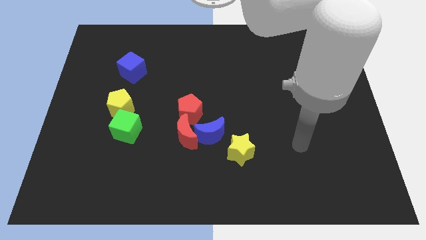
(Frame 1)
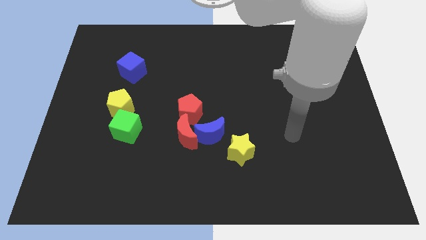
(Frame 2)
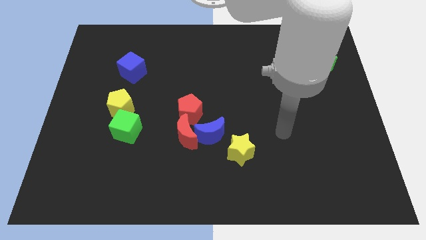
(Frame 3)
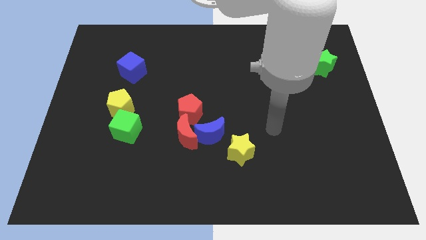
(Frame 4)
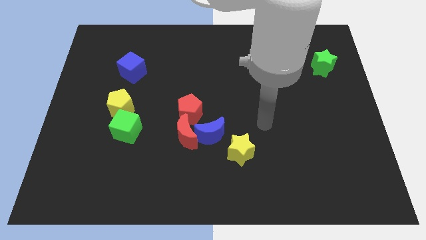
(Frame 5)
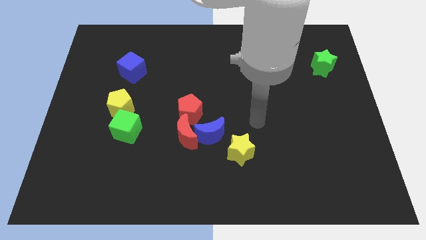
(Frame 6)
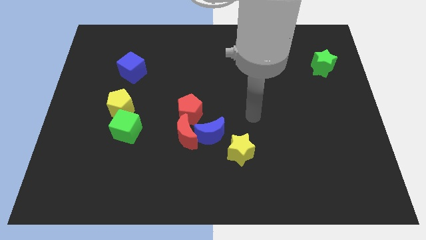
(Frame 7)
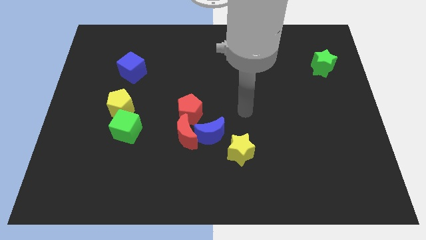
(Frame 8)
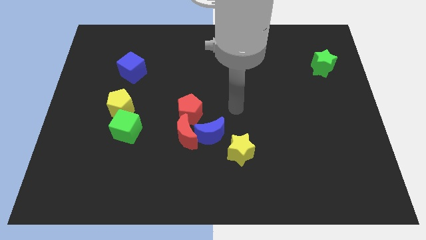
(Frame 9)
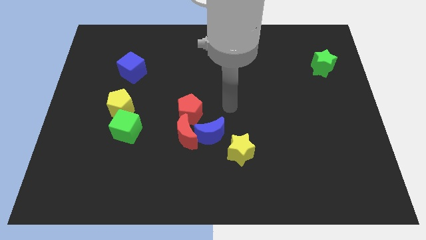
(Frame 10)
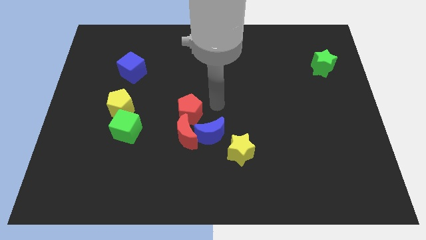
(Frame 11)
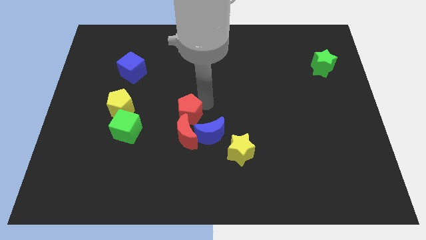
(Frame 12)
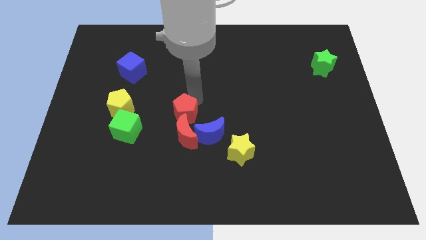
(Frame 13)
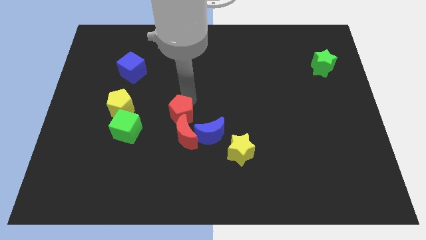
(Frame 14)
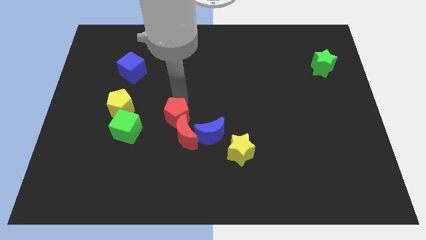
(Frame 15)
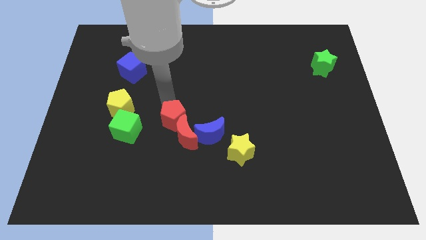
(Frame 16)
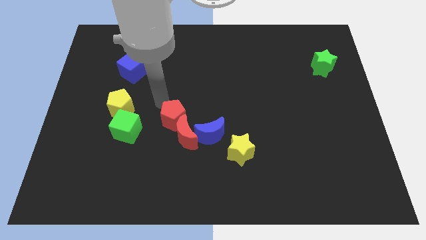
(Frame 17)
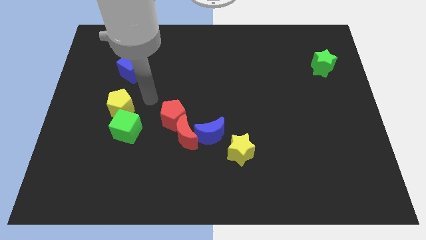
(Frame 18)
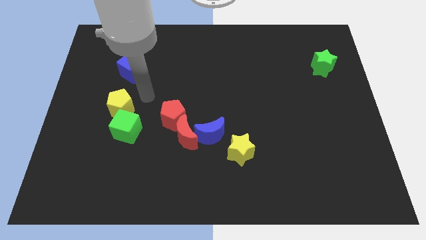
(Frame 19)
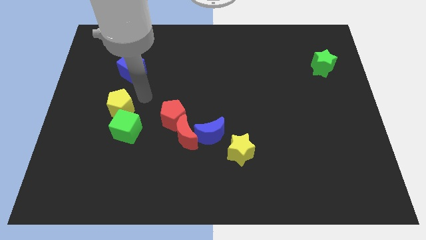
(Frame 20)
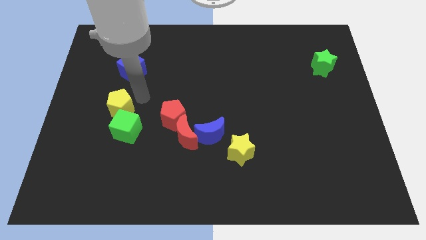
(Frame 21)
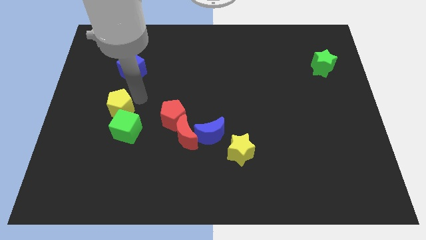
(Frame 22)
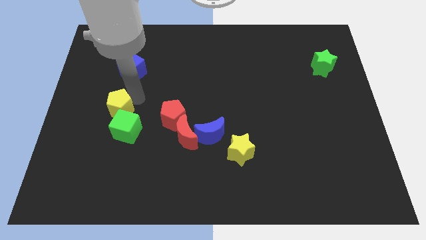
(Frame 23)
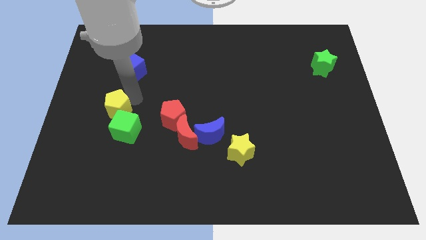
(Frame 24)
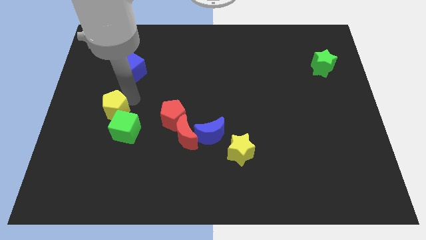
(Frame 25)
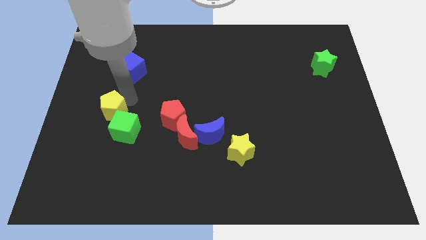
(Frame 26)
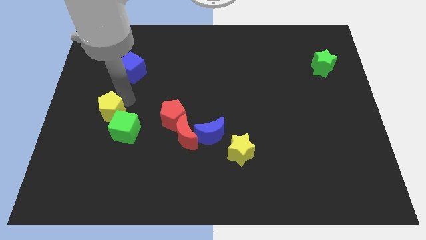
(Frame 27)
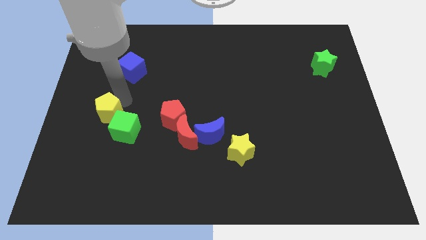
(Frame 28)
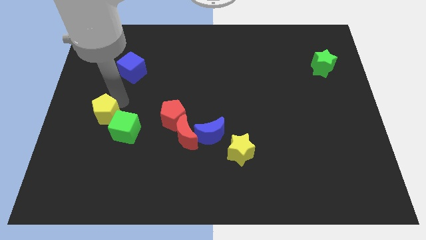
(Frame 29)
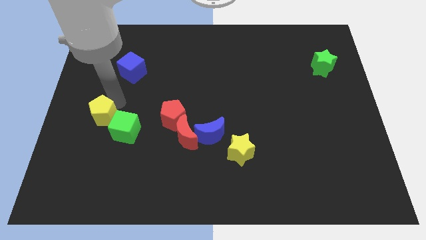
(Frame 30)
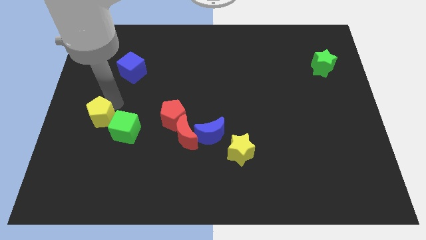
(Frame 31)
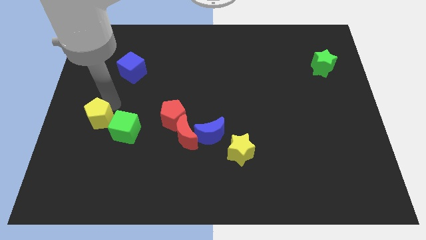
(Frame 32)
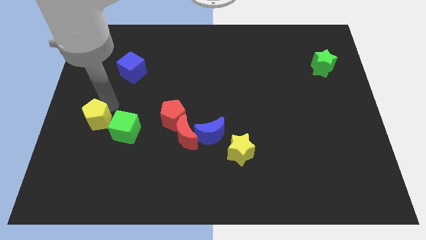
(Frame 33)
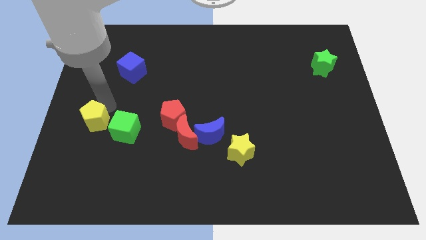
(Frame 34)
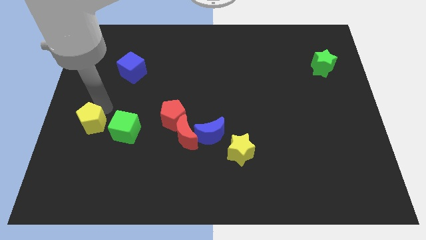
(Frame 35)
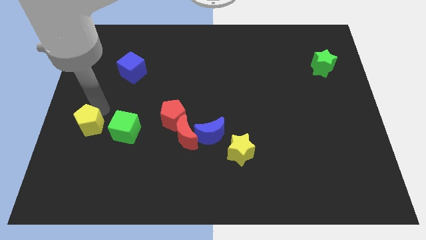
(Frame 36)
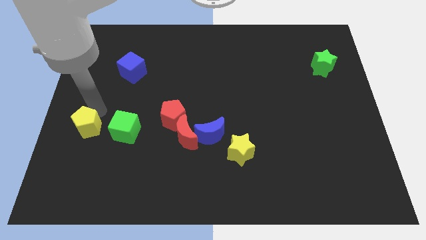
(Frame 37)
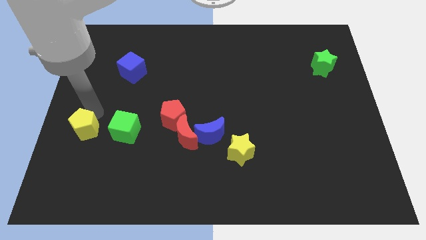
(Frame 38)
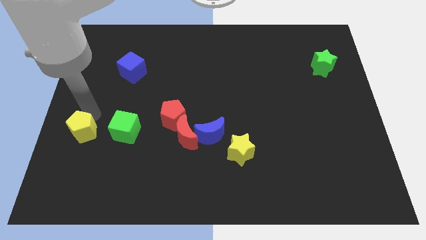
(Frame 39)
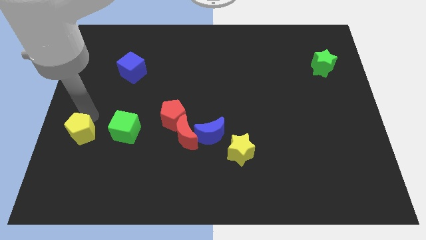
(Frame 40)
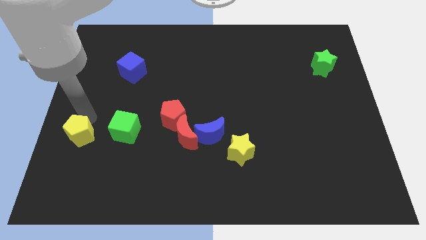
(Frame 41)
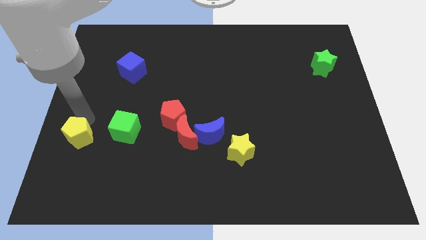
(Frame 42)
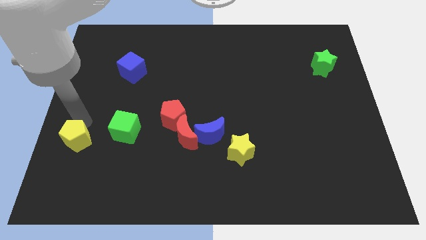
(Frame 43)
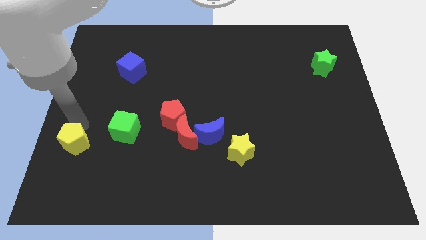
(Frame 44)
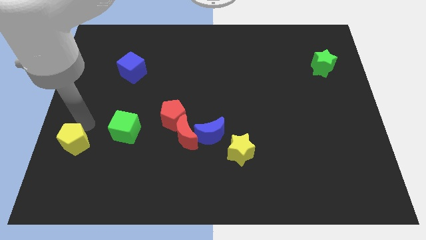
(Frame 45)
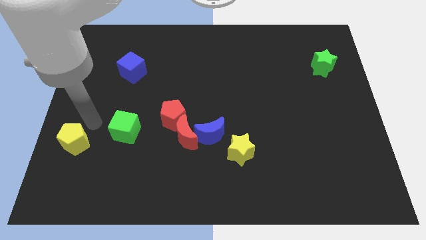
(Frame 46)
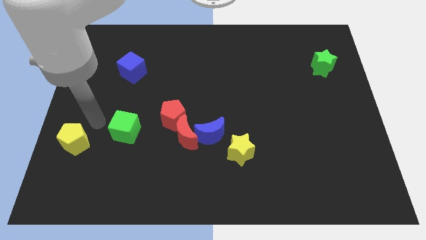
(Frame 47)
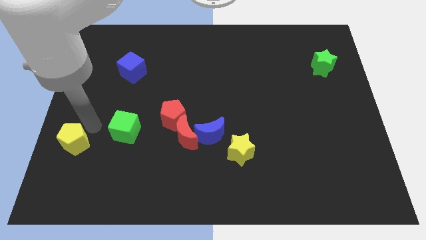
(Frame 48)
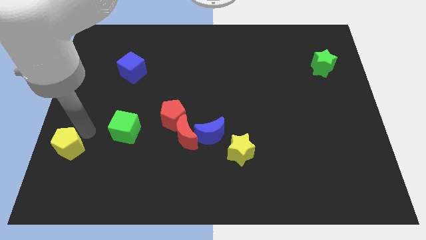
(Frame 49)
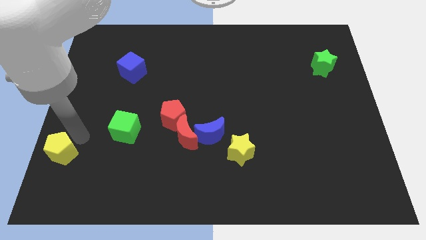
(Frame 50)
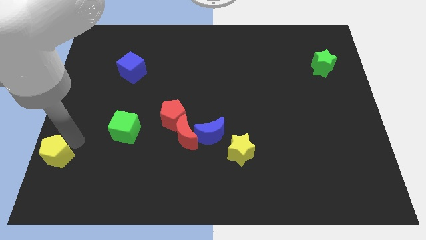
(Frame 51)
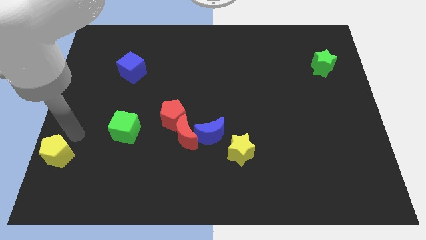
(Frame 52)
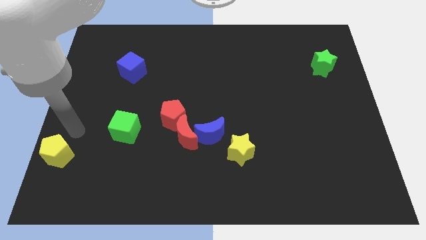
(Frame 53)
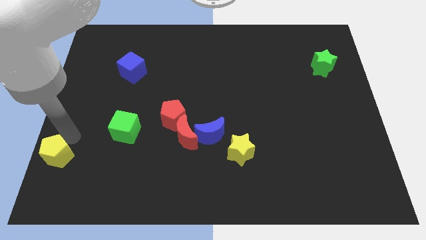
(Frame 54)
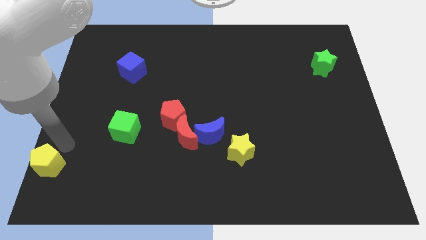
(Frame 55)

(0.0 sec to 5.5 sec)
move the yellow pentagon to the bottom left corner
